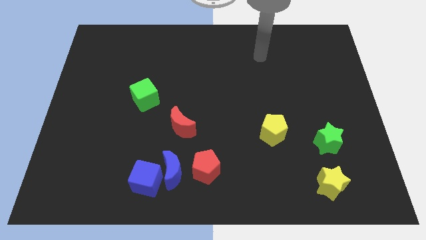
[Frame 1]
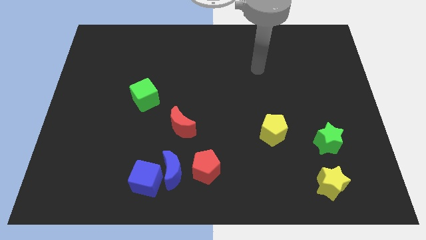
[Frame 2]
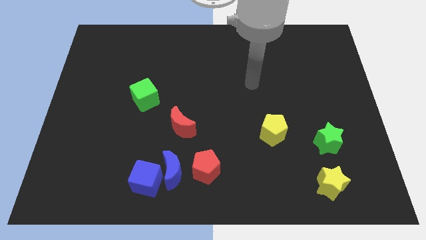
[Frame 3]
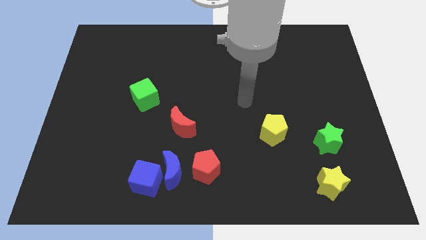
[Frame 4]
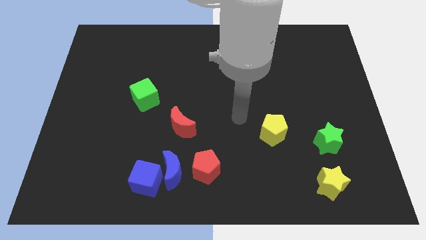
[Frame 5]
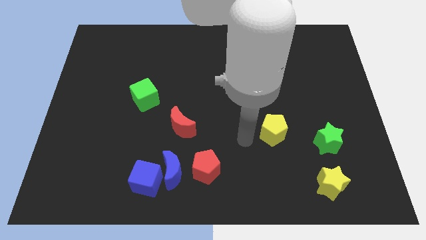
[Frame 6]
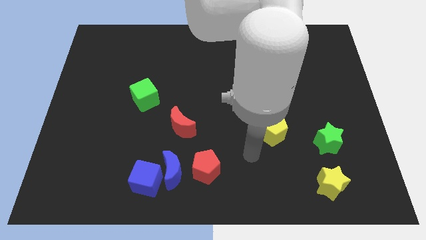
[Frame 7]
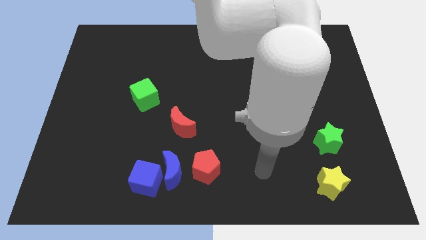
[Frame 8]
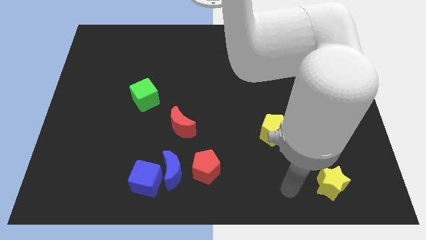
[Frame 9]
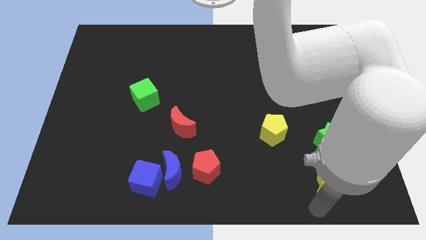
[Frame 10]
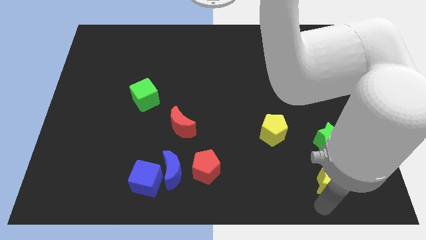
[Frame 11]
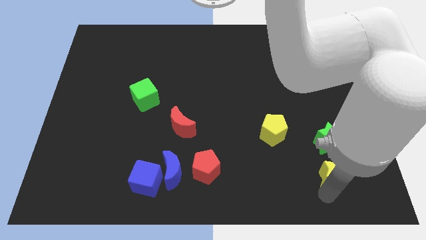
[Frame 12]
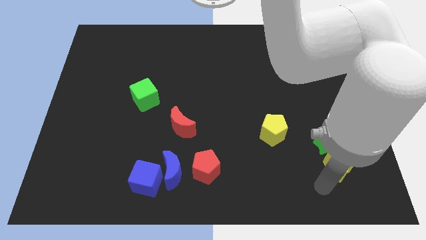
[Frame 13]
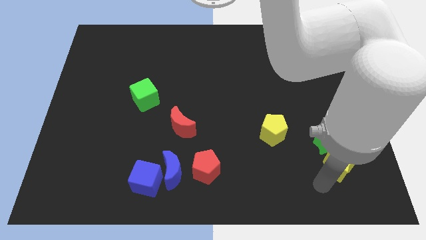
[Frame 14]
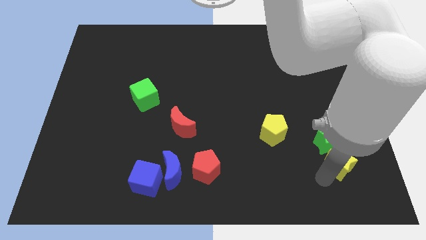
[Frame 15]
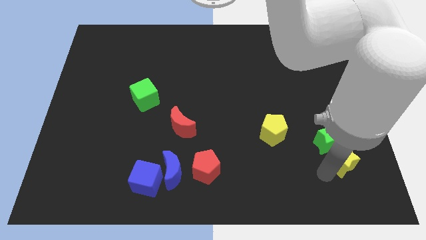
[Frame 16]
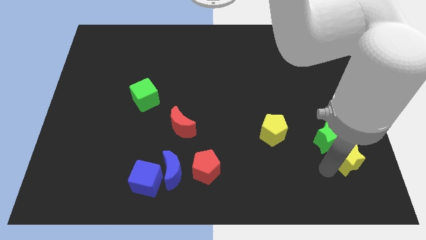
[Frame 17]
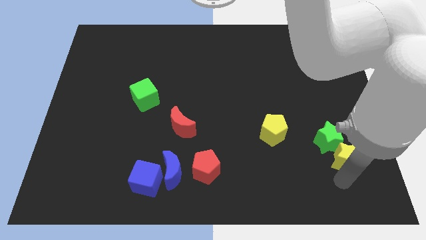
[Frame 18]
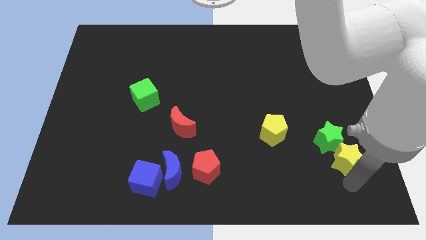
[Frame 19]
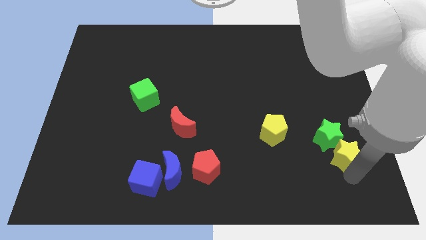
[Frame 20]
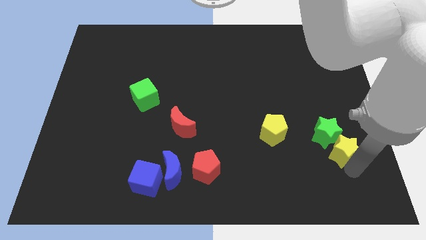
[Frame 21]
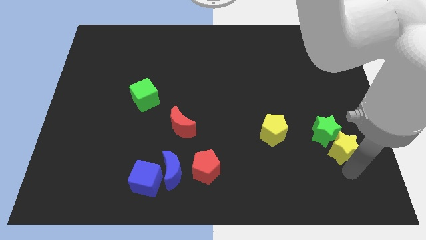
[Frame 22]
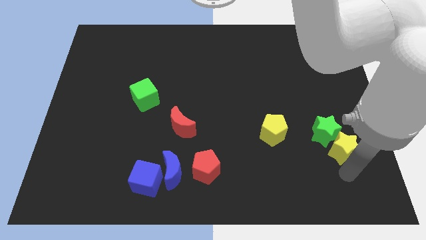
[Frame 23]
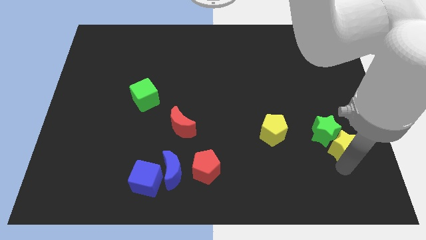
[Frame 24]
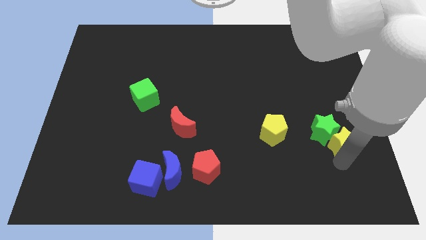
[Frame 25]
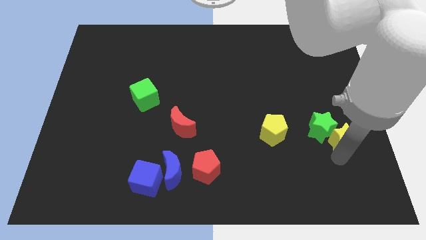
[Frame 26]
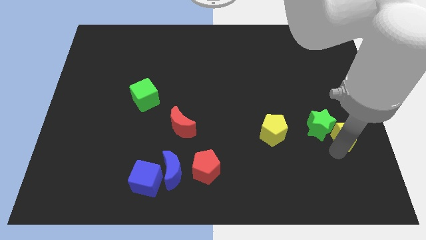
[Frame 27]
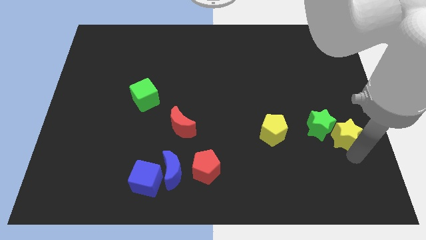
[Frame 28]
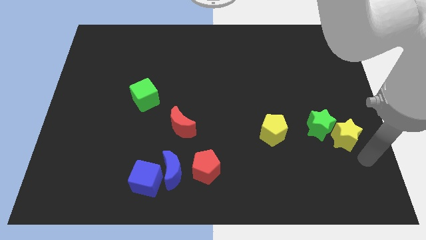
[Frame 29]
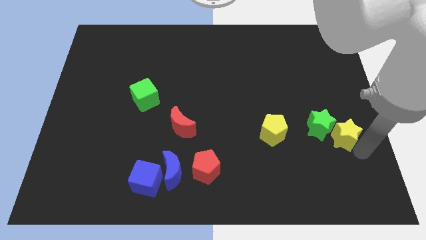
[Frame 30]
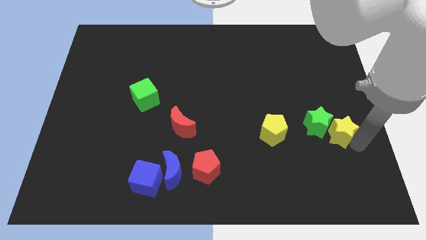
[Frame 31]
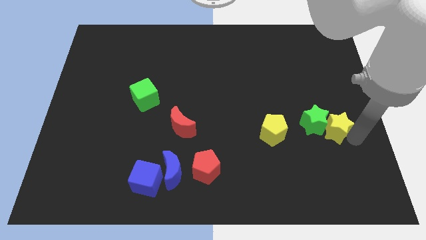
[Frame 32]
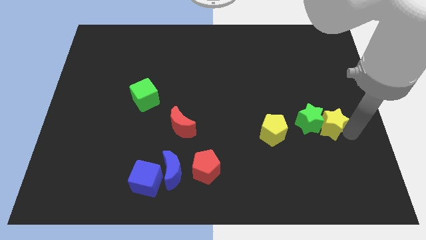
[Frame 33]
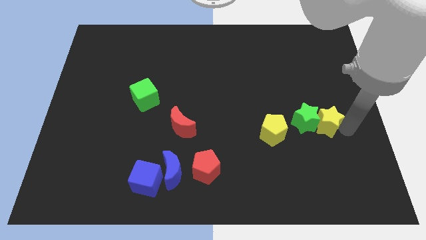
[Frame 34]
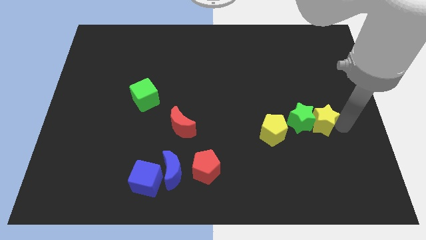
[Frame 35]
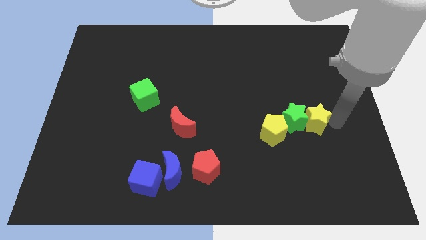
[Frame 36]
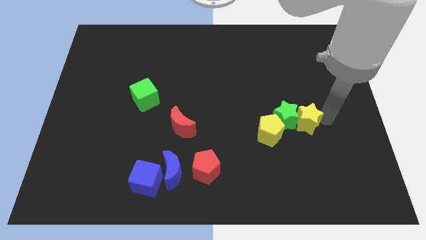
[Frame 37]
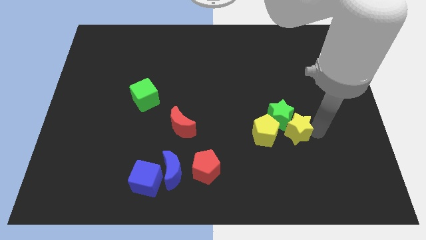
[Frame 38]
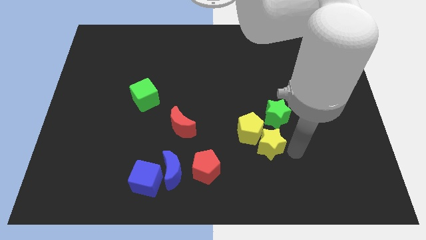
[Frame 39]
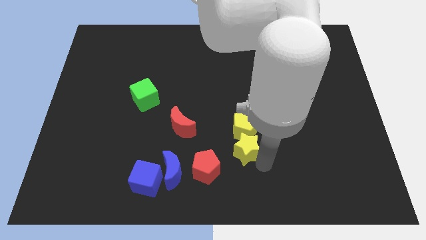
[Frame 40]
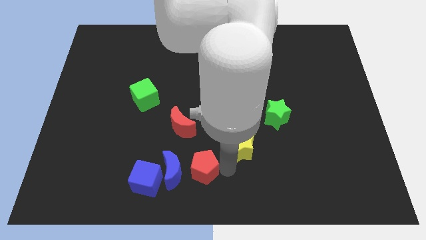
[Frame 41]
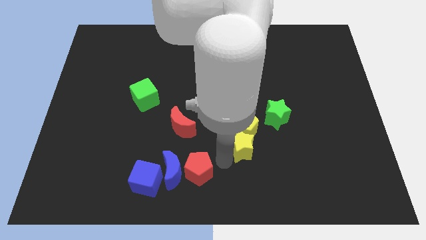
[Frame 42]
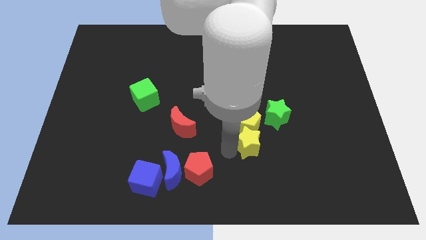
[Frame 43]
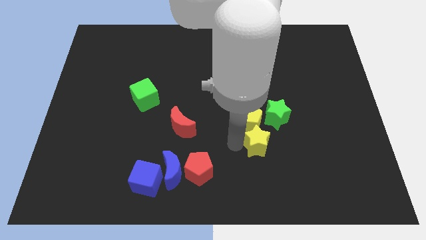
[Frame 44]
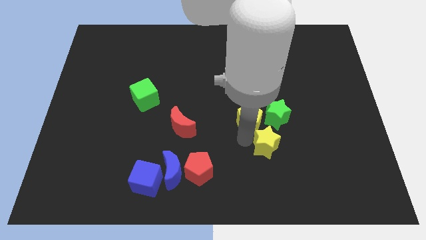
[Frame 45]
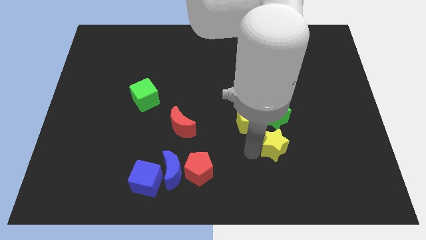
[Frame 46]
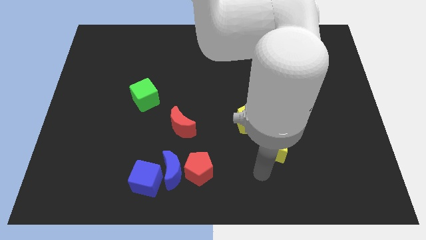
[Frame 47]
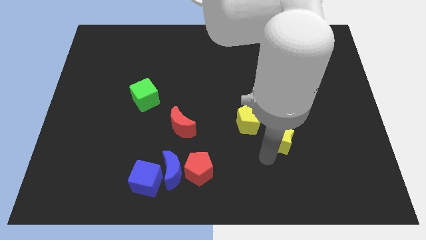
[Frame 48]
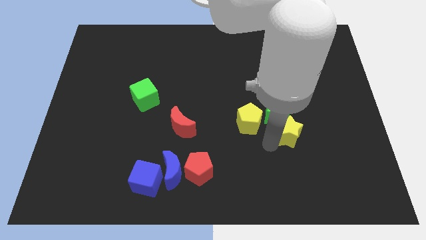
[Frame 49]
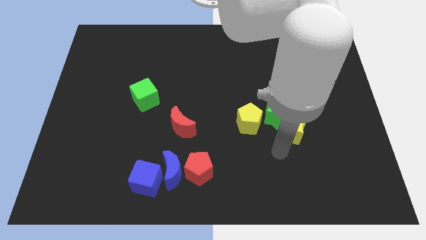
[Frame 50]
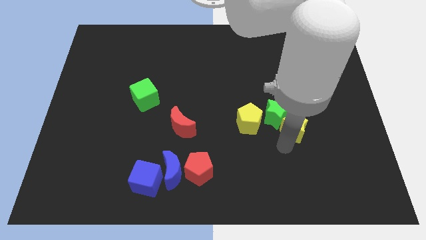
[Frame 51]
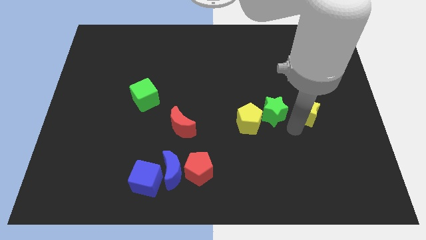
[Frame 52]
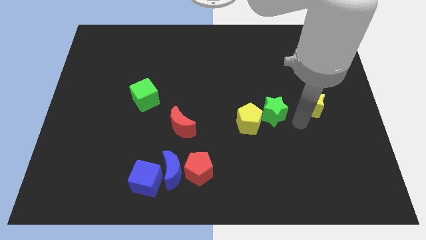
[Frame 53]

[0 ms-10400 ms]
move the yellow star up

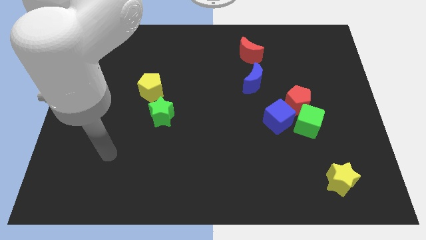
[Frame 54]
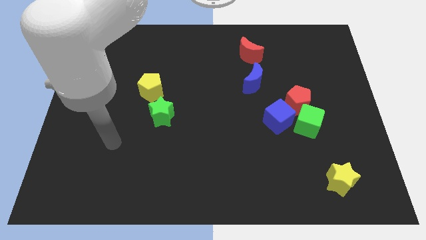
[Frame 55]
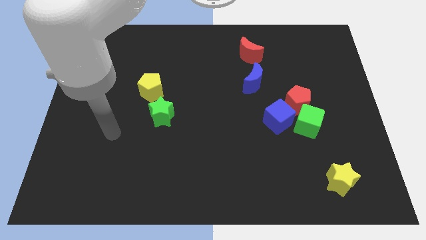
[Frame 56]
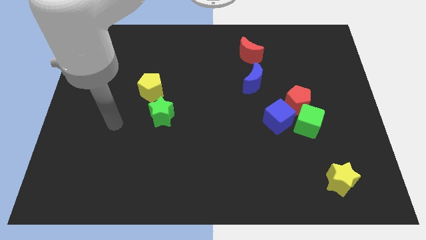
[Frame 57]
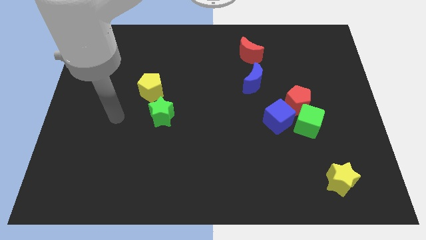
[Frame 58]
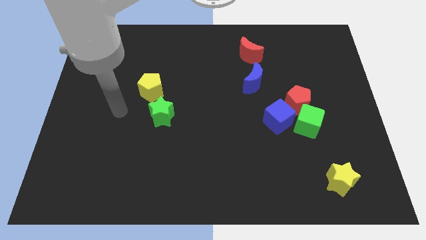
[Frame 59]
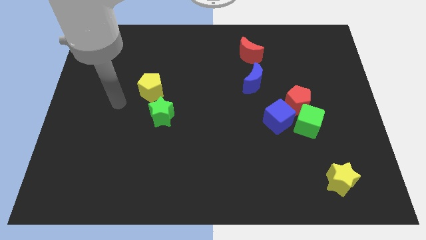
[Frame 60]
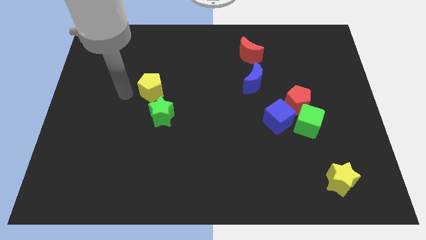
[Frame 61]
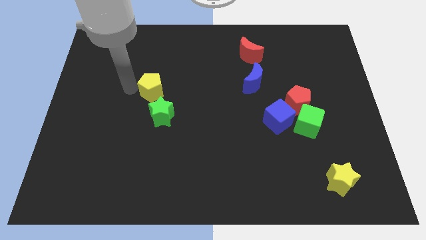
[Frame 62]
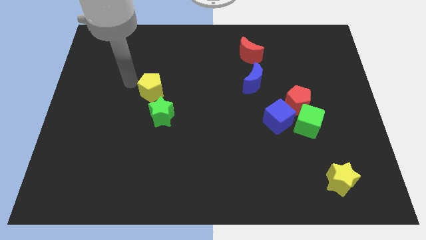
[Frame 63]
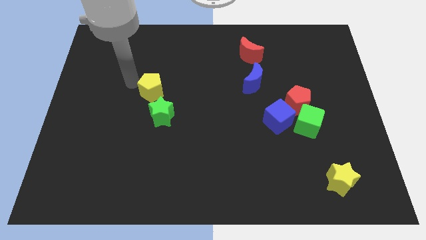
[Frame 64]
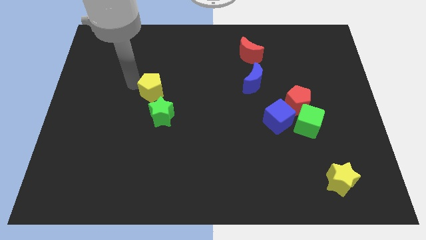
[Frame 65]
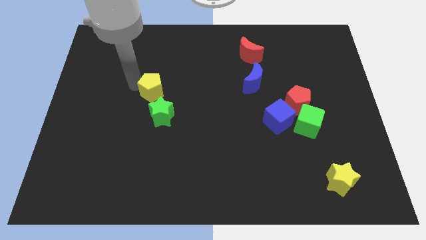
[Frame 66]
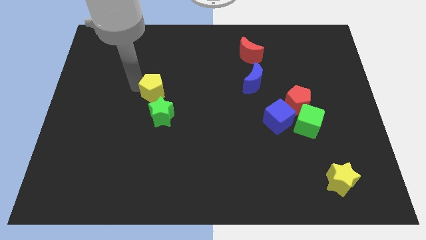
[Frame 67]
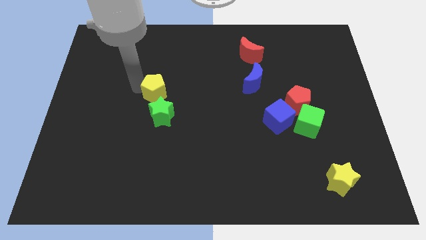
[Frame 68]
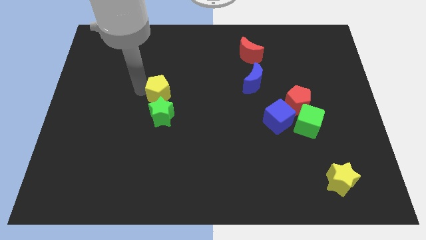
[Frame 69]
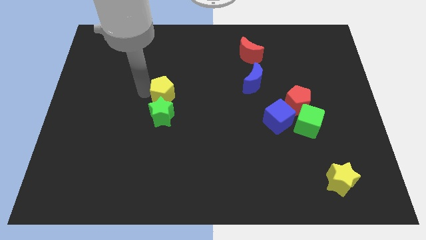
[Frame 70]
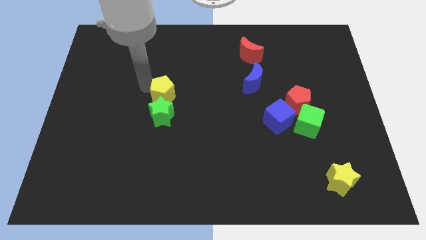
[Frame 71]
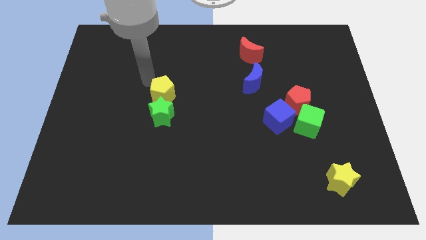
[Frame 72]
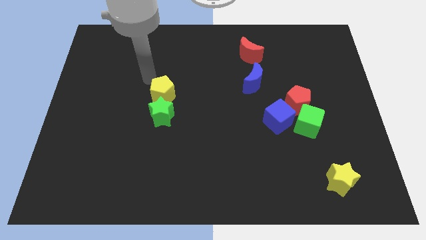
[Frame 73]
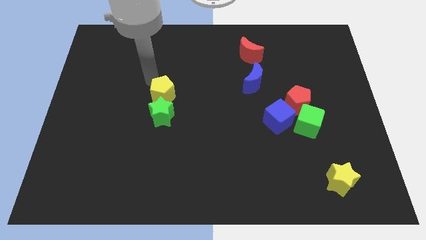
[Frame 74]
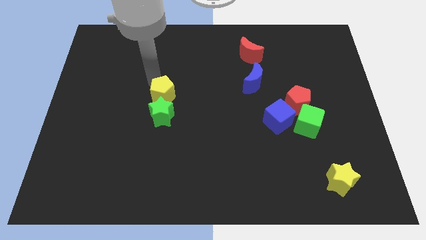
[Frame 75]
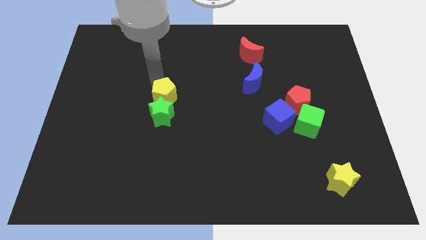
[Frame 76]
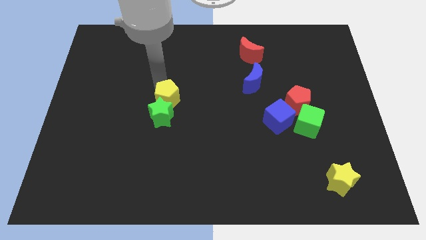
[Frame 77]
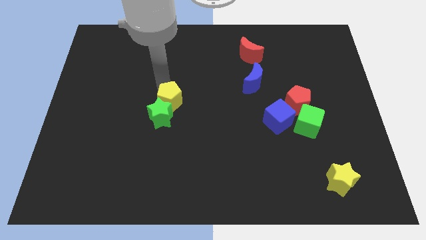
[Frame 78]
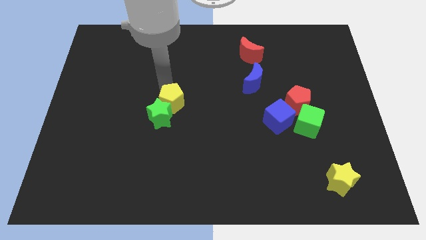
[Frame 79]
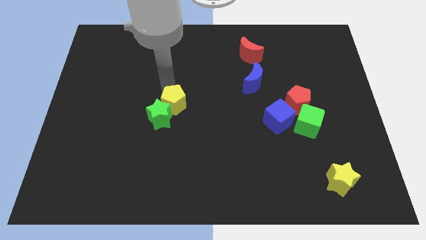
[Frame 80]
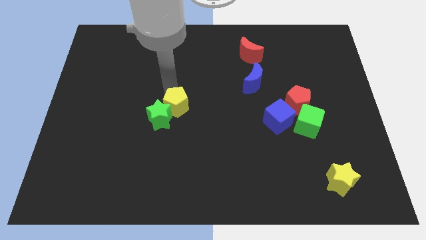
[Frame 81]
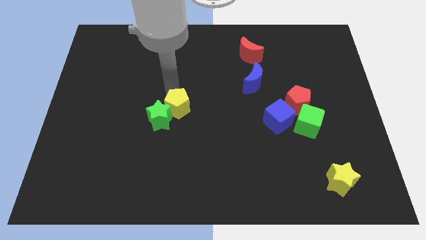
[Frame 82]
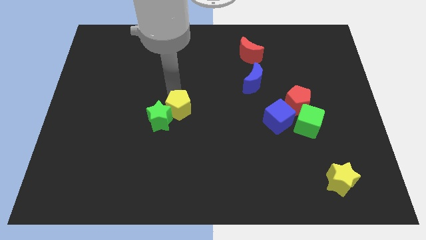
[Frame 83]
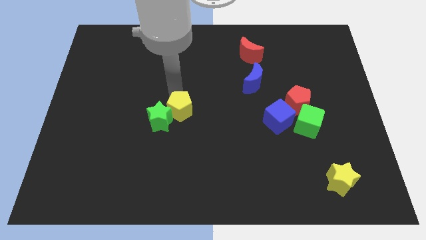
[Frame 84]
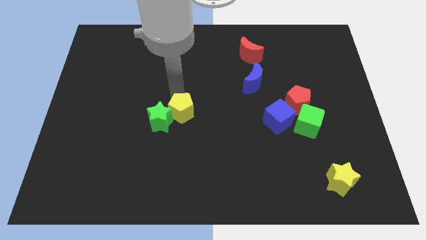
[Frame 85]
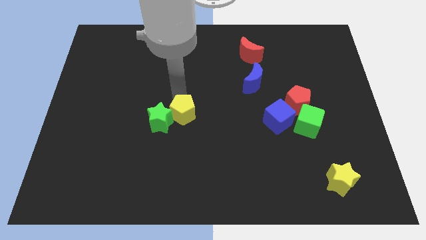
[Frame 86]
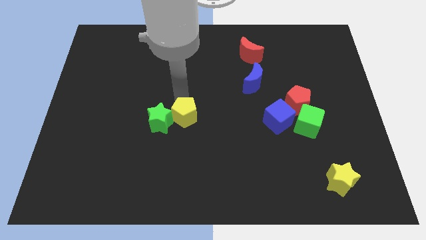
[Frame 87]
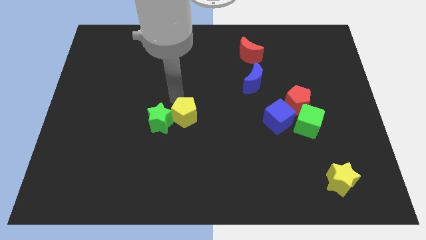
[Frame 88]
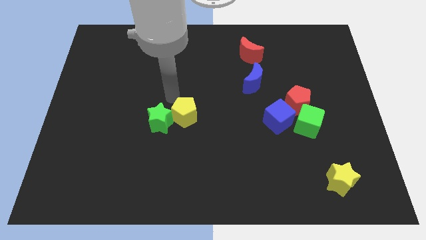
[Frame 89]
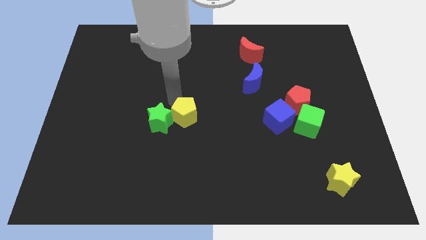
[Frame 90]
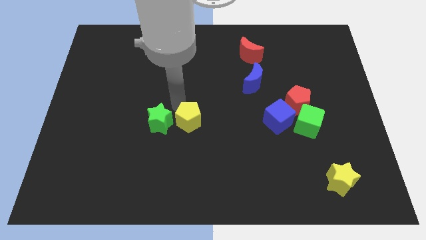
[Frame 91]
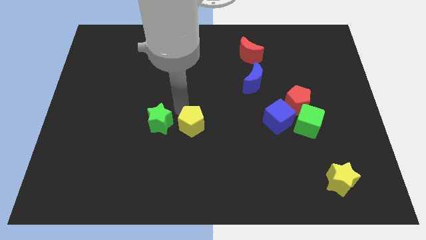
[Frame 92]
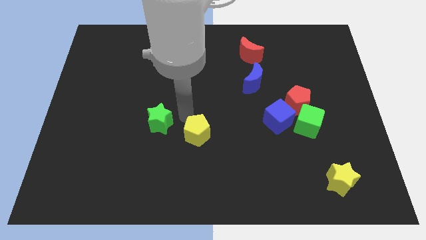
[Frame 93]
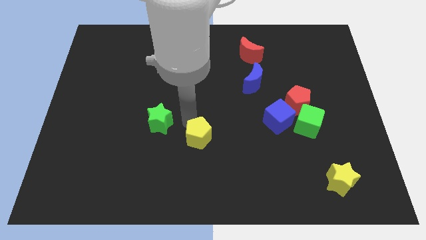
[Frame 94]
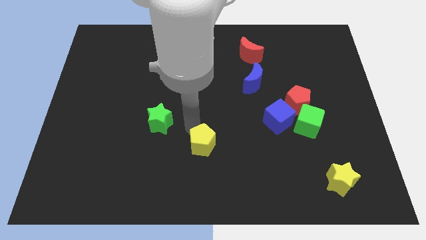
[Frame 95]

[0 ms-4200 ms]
move the yellow pentagon diagonally down and right
